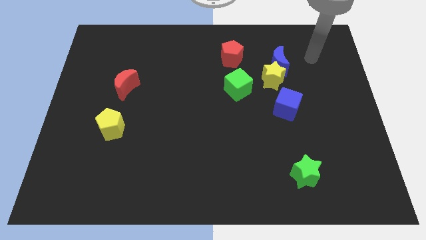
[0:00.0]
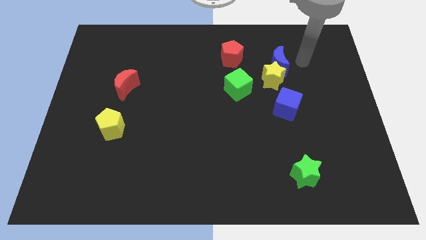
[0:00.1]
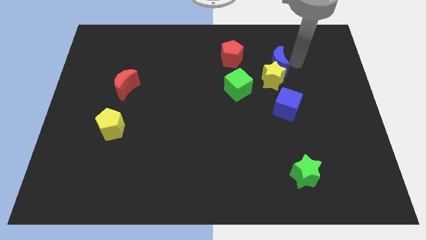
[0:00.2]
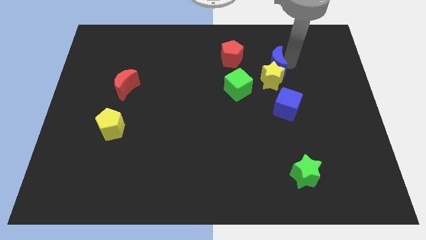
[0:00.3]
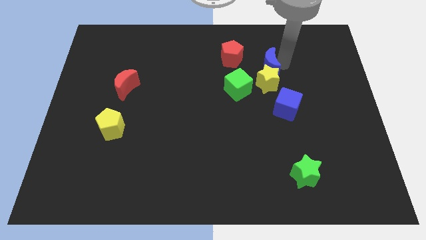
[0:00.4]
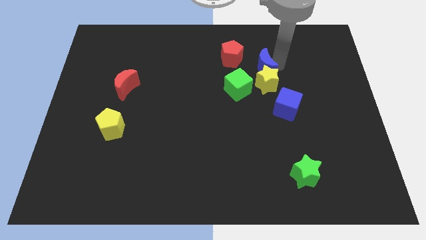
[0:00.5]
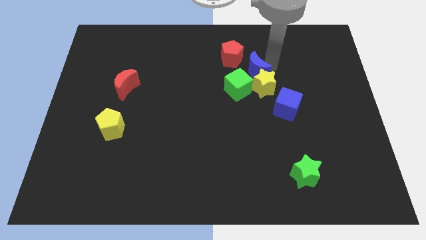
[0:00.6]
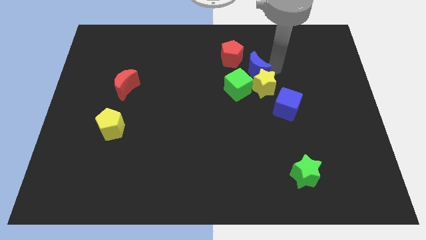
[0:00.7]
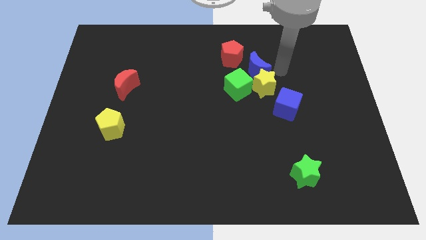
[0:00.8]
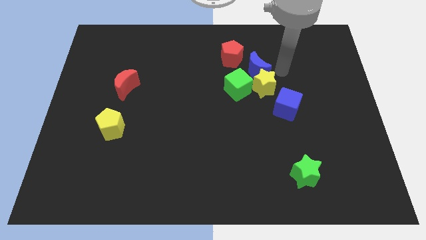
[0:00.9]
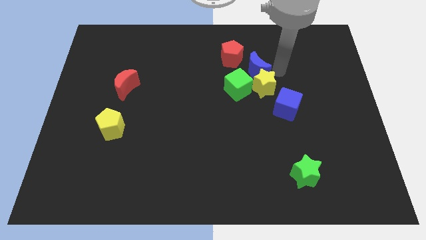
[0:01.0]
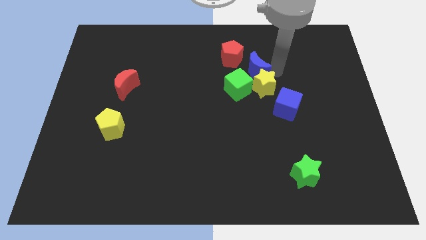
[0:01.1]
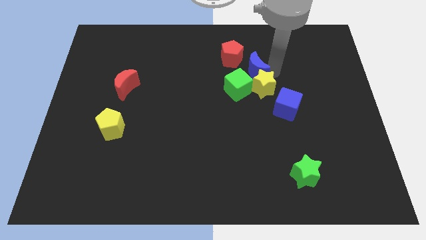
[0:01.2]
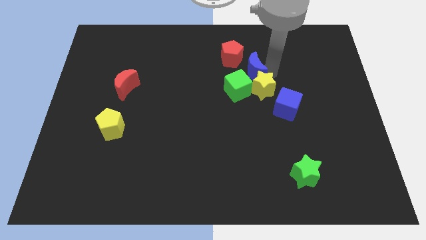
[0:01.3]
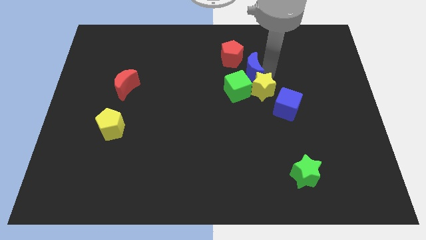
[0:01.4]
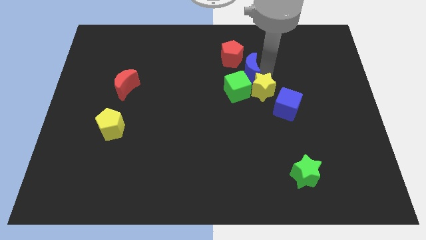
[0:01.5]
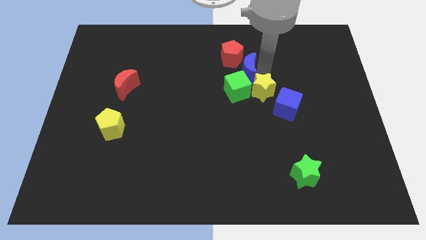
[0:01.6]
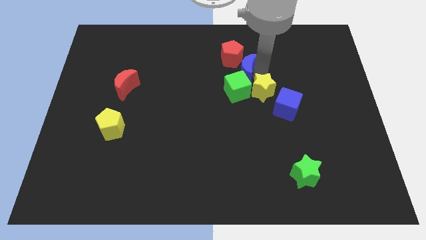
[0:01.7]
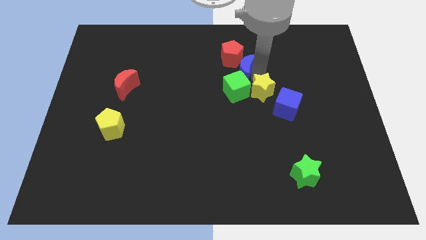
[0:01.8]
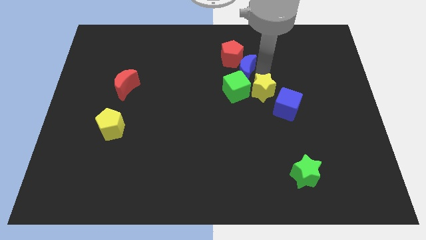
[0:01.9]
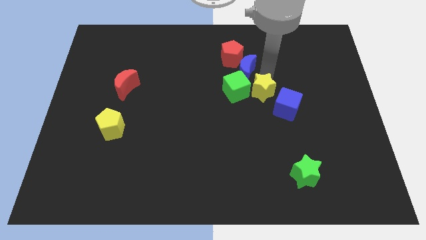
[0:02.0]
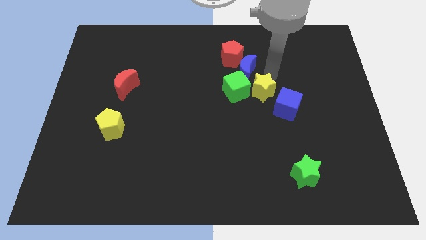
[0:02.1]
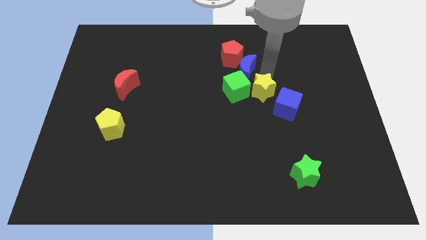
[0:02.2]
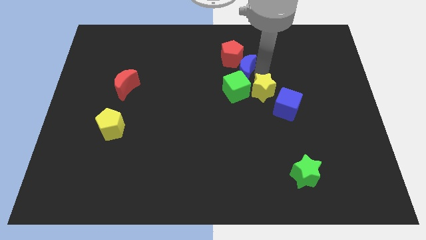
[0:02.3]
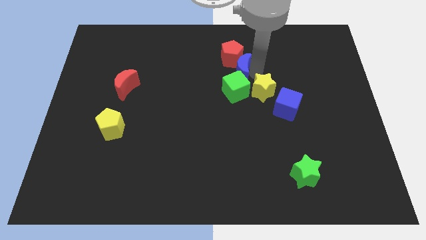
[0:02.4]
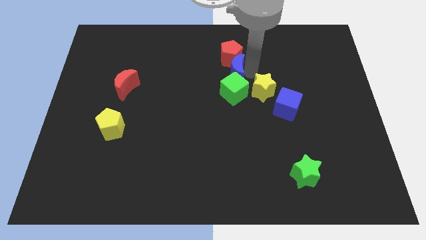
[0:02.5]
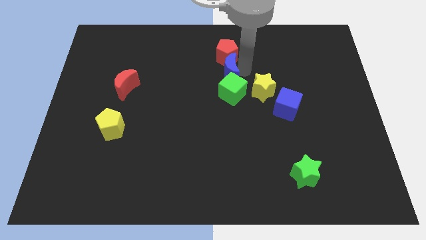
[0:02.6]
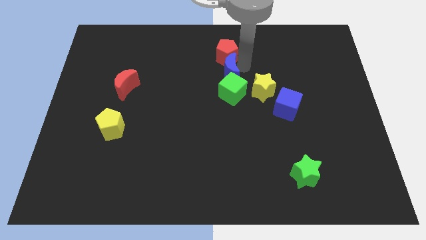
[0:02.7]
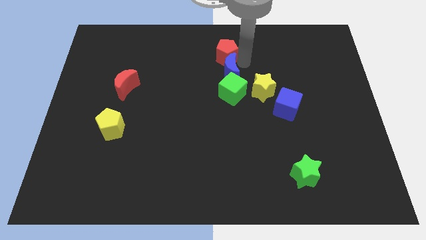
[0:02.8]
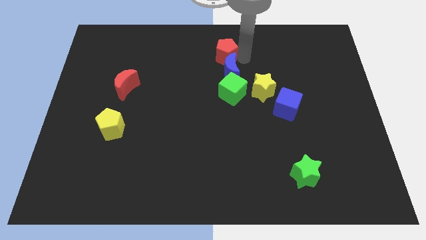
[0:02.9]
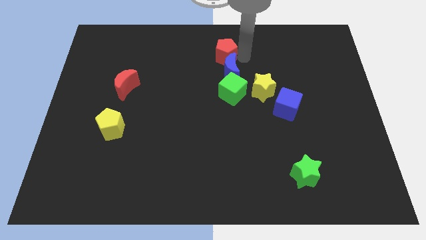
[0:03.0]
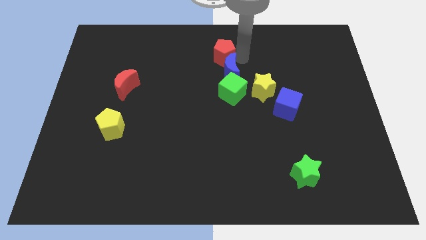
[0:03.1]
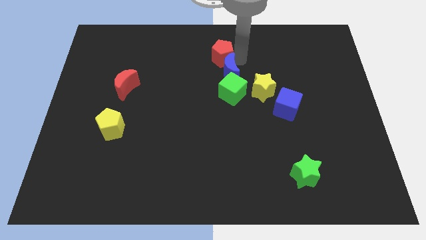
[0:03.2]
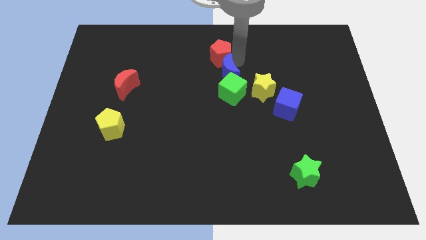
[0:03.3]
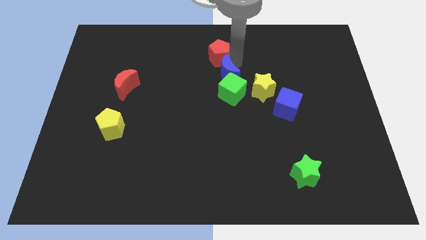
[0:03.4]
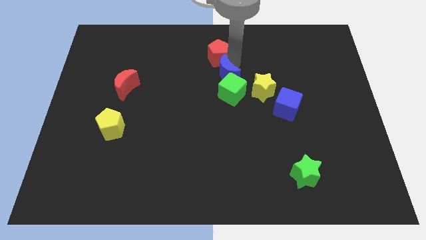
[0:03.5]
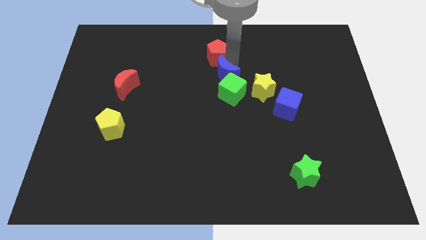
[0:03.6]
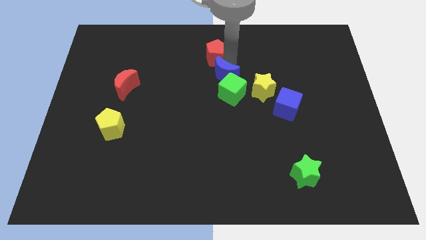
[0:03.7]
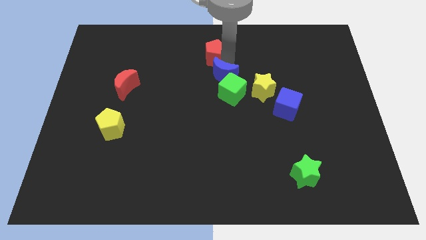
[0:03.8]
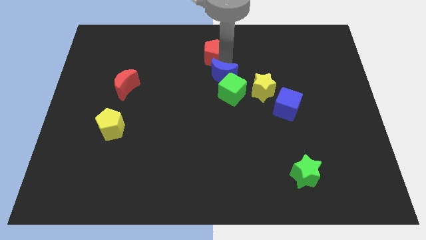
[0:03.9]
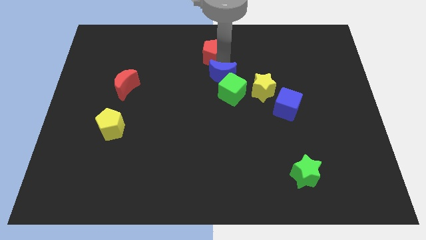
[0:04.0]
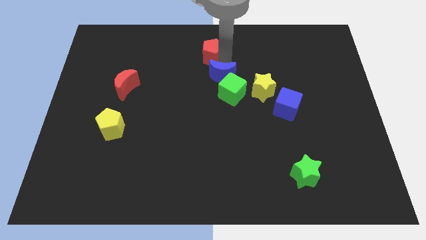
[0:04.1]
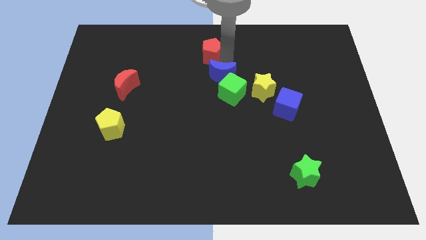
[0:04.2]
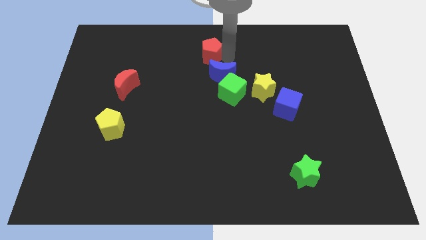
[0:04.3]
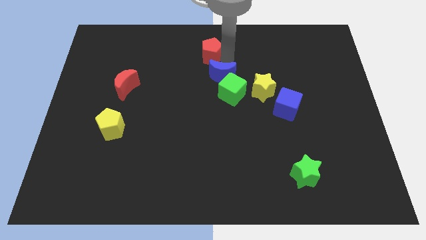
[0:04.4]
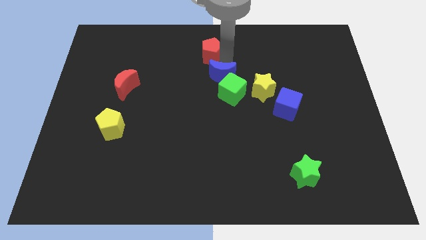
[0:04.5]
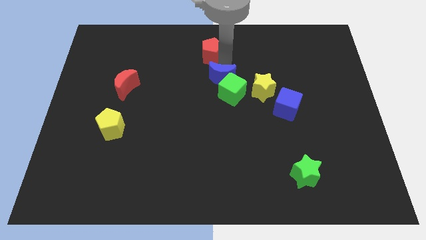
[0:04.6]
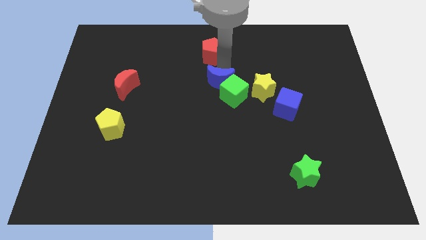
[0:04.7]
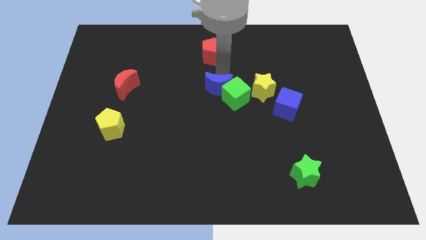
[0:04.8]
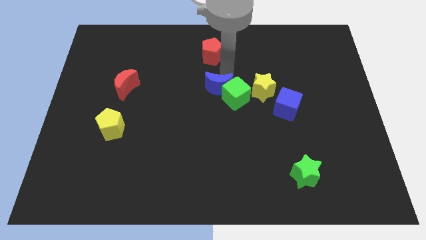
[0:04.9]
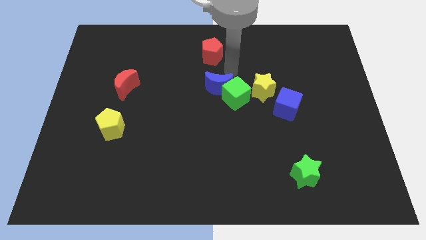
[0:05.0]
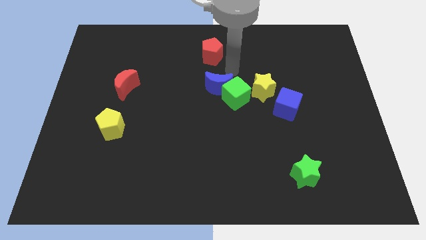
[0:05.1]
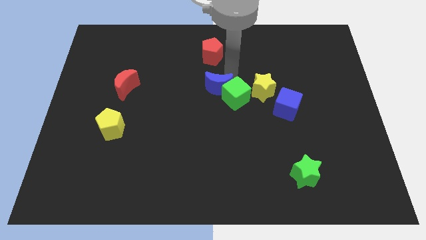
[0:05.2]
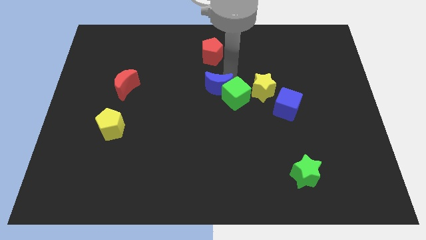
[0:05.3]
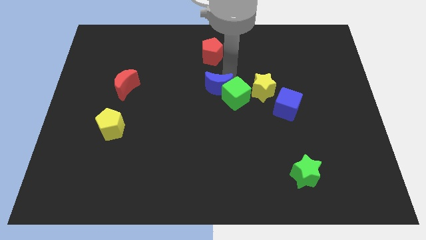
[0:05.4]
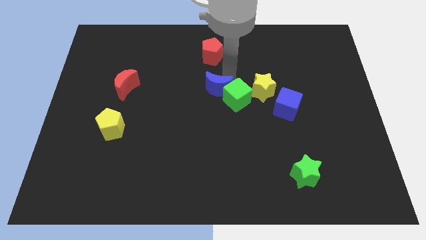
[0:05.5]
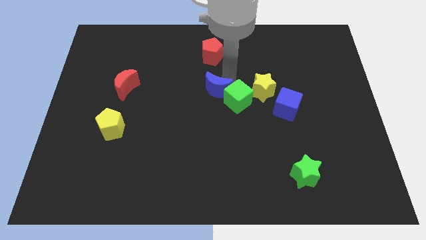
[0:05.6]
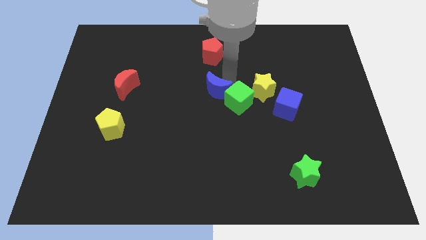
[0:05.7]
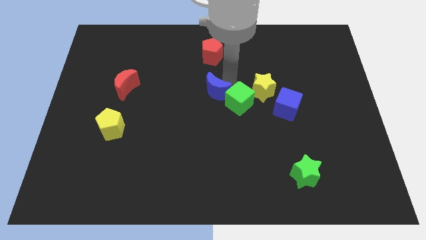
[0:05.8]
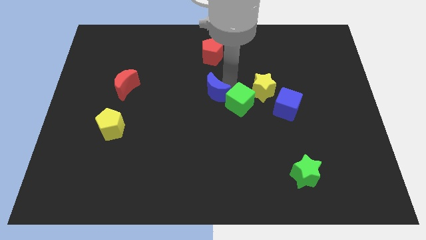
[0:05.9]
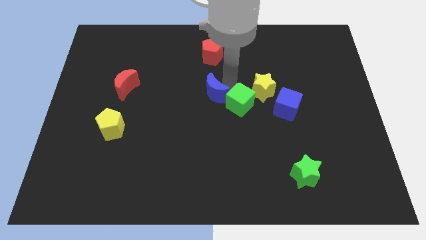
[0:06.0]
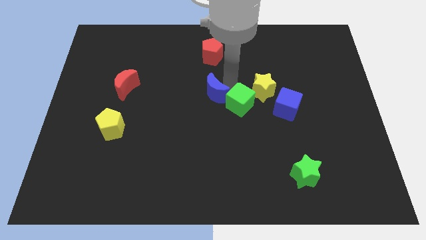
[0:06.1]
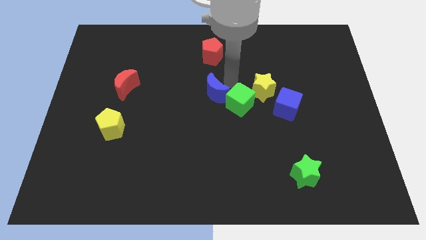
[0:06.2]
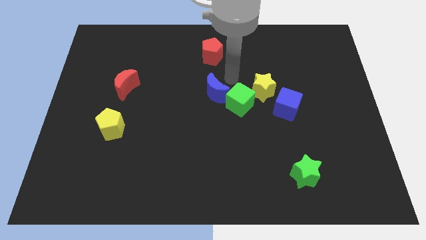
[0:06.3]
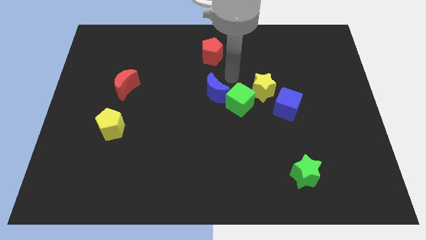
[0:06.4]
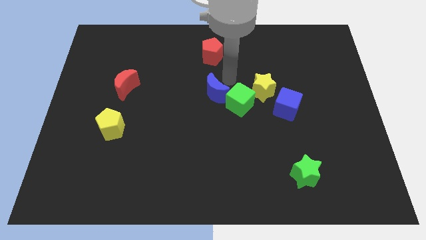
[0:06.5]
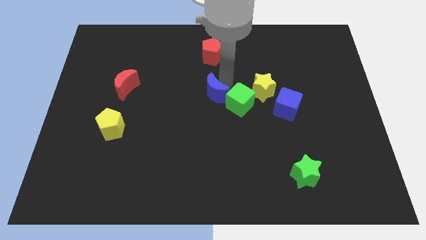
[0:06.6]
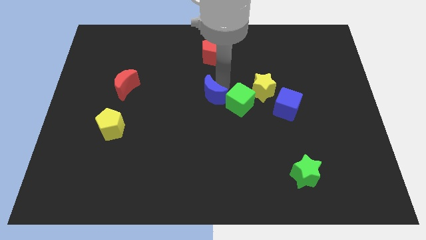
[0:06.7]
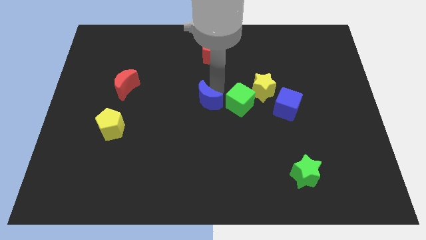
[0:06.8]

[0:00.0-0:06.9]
push the blue moon down and left

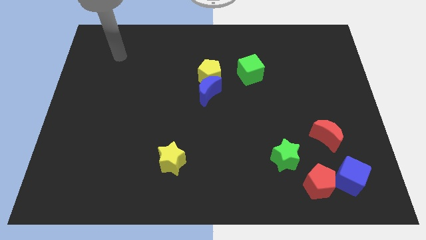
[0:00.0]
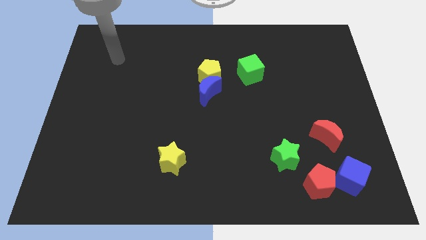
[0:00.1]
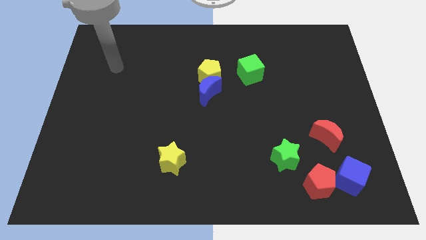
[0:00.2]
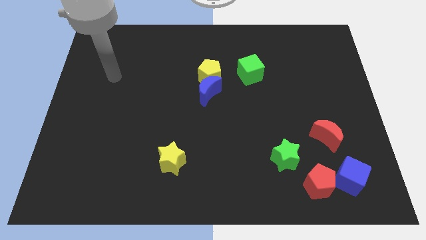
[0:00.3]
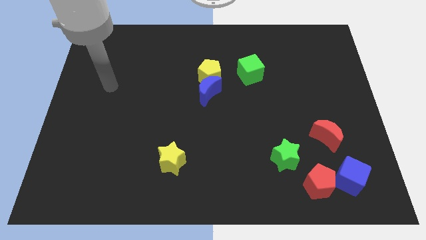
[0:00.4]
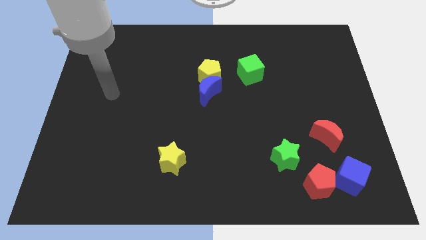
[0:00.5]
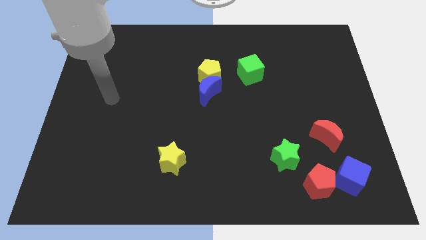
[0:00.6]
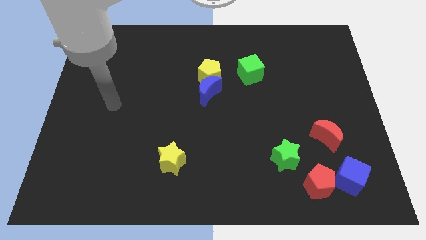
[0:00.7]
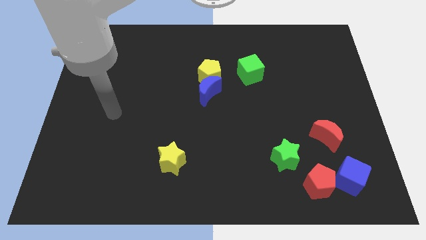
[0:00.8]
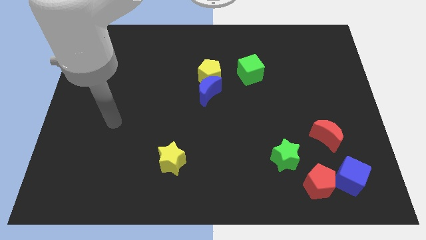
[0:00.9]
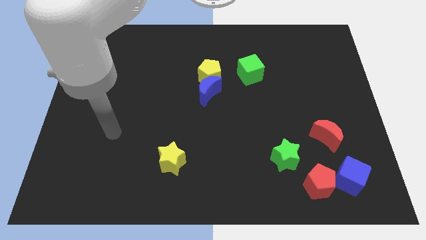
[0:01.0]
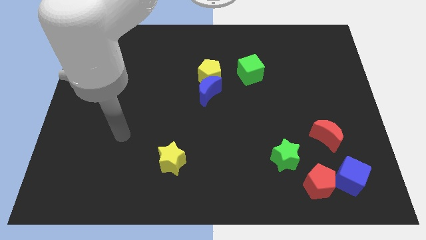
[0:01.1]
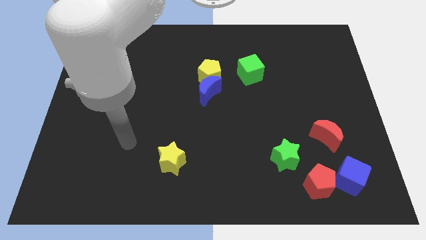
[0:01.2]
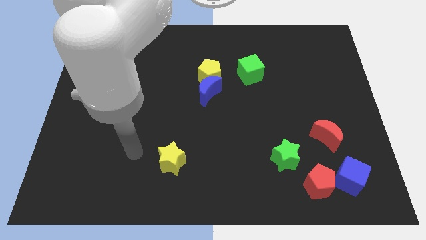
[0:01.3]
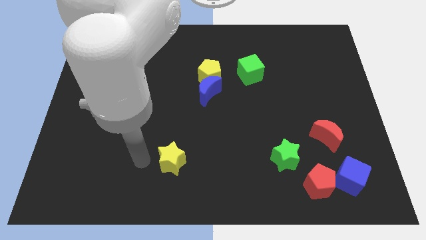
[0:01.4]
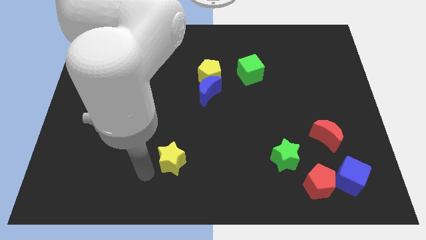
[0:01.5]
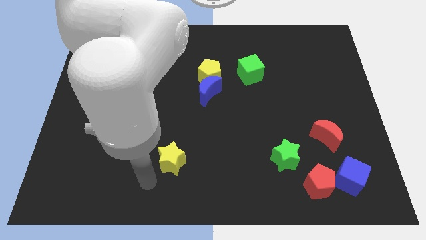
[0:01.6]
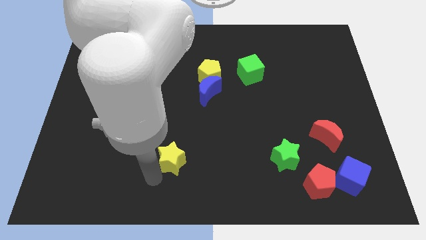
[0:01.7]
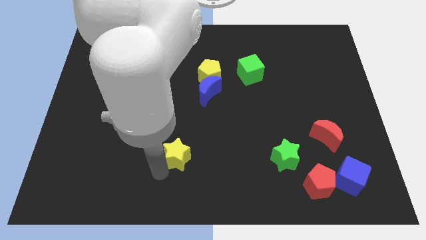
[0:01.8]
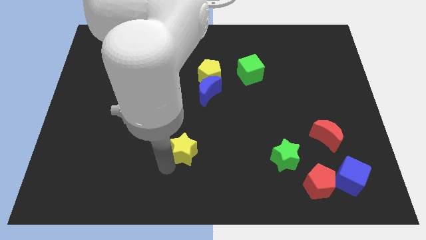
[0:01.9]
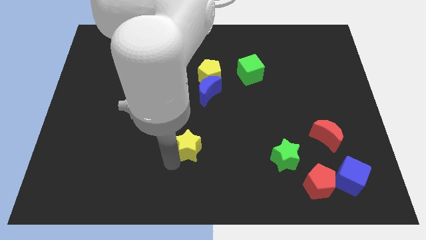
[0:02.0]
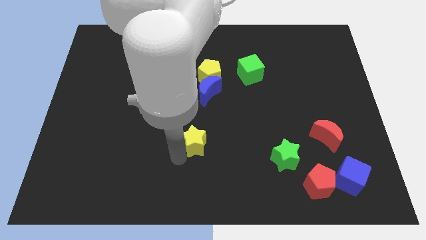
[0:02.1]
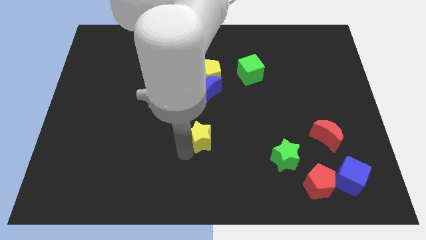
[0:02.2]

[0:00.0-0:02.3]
move the yellow star upwards and then to the right somewhat
